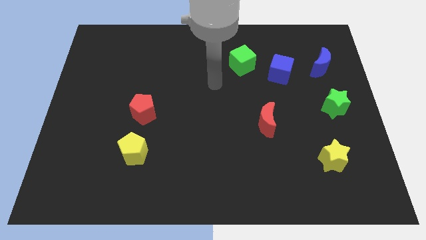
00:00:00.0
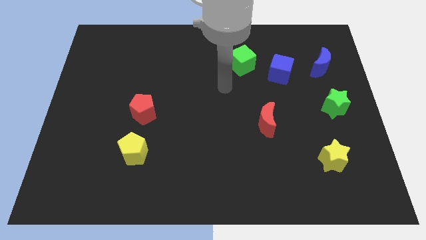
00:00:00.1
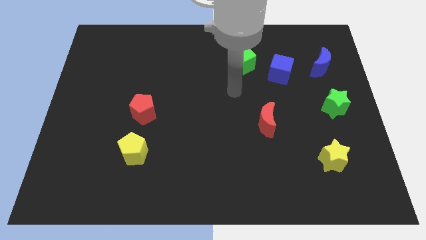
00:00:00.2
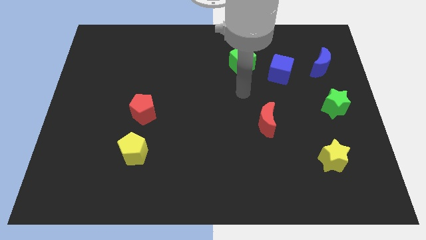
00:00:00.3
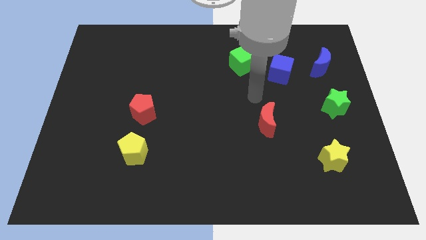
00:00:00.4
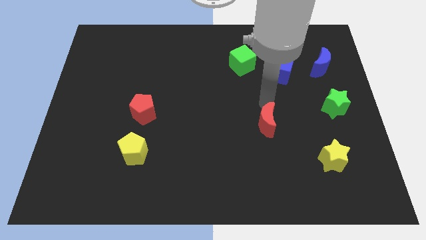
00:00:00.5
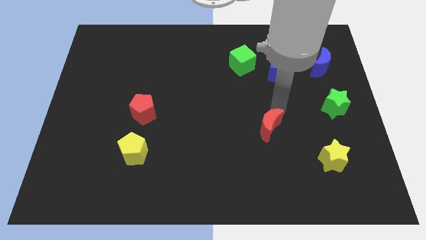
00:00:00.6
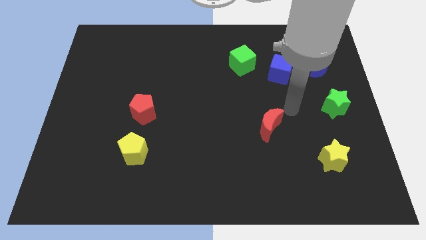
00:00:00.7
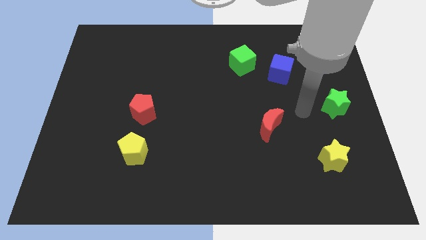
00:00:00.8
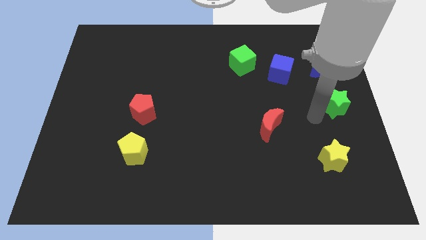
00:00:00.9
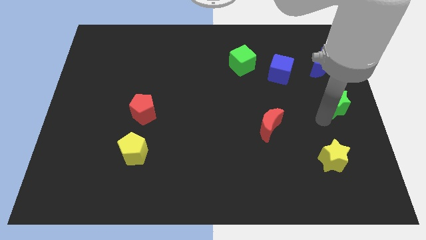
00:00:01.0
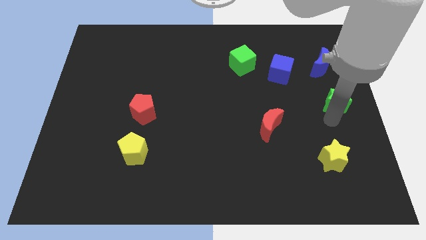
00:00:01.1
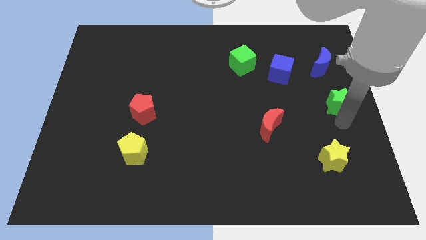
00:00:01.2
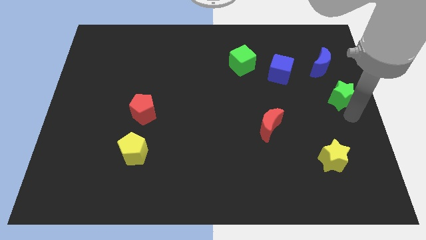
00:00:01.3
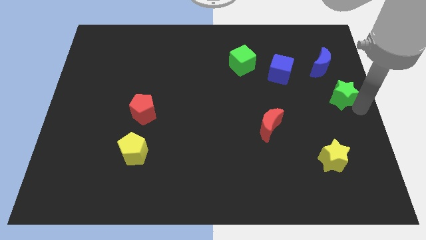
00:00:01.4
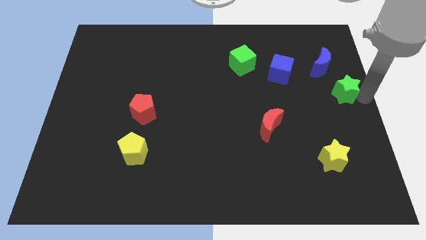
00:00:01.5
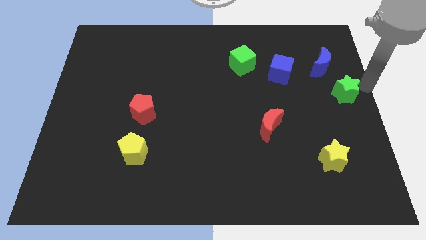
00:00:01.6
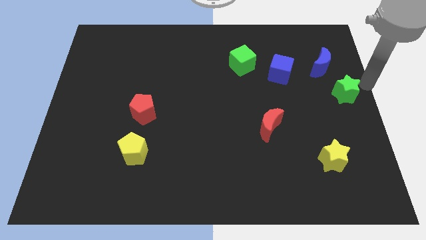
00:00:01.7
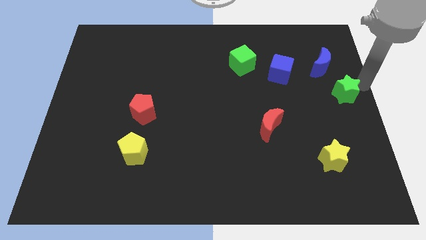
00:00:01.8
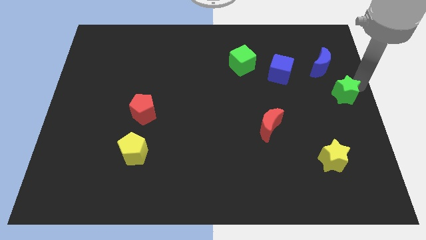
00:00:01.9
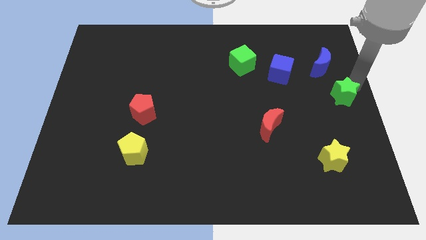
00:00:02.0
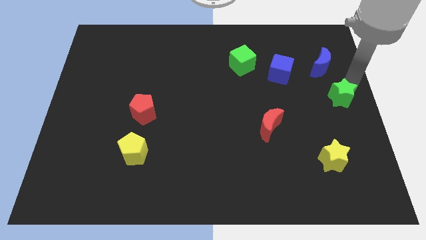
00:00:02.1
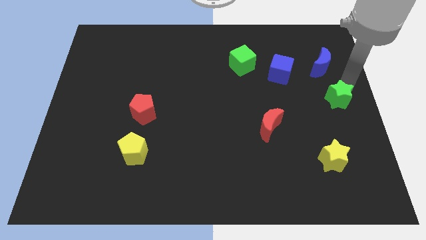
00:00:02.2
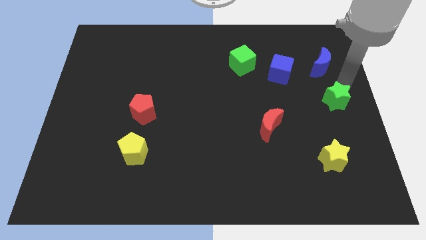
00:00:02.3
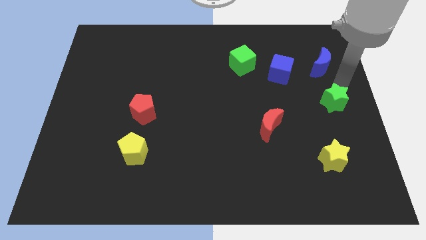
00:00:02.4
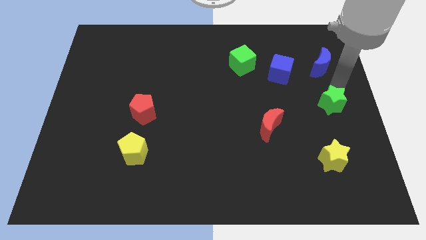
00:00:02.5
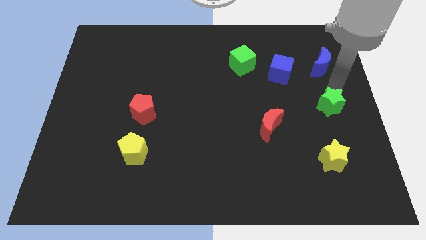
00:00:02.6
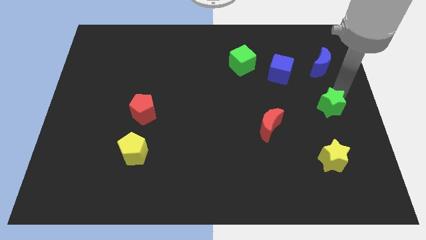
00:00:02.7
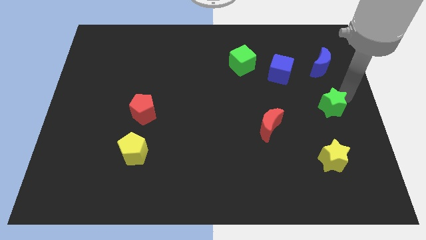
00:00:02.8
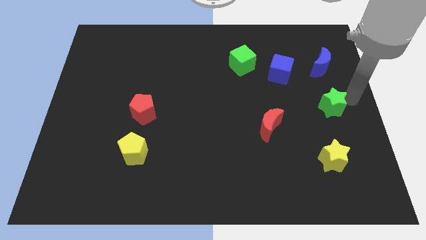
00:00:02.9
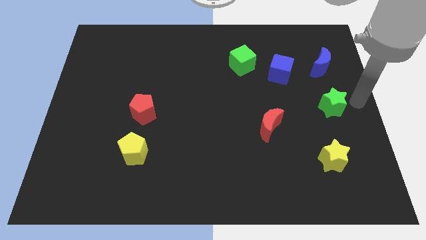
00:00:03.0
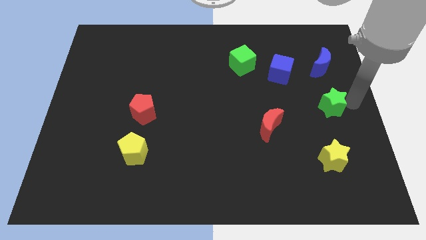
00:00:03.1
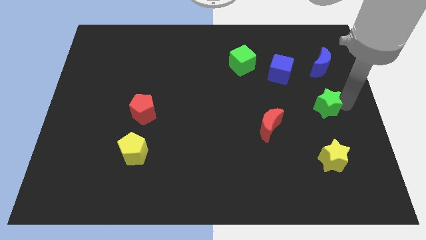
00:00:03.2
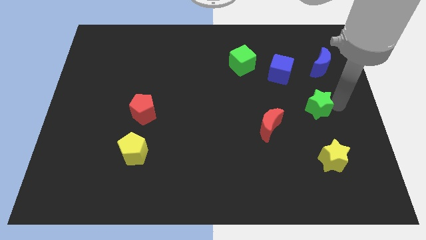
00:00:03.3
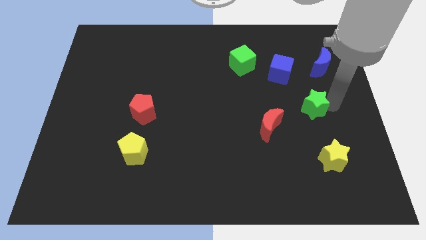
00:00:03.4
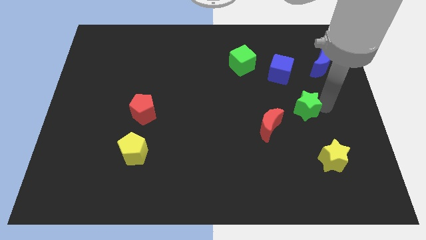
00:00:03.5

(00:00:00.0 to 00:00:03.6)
slide the green star left a little

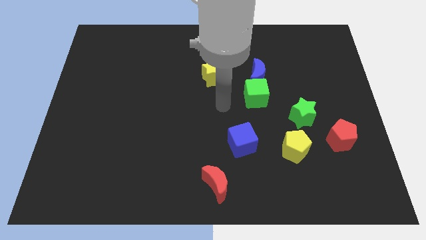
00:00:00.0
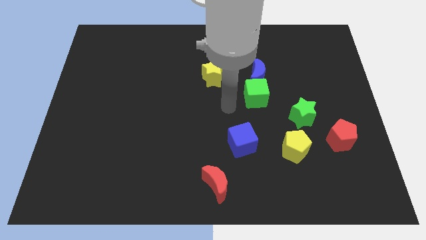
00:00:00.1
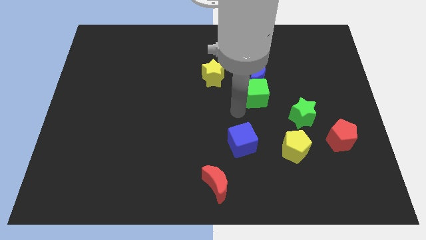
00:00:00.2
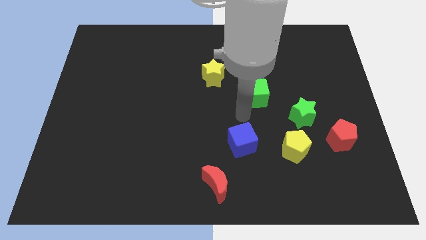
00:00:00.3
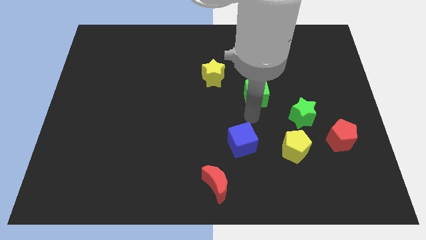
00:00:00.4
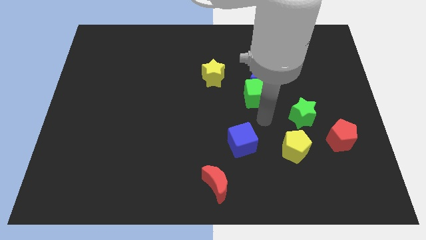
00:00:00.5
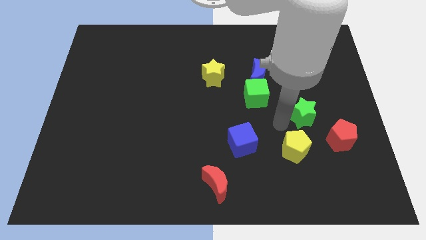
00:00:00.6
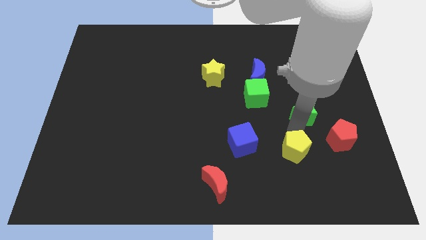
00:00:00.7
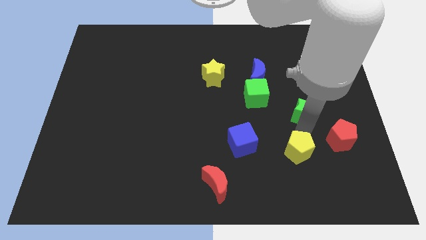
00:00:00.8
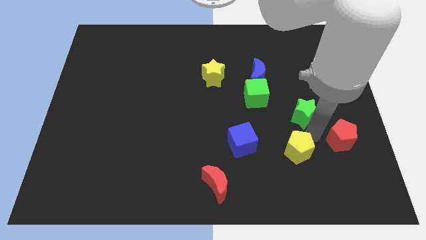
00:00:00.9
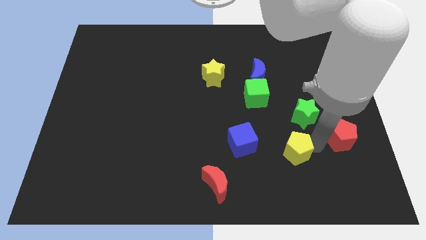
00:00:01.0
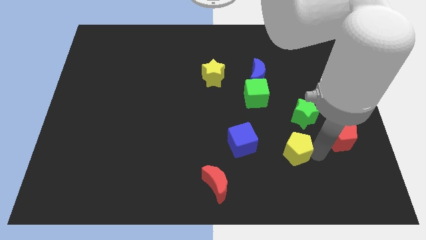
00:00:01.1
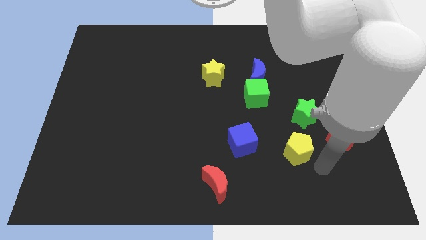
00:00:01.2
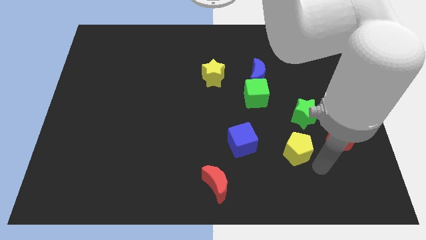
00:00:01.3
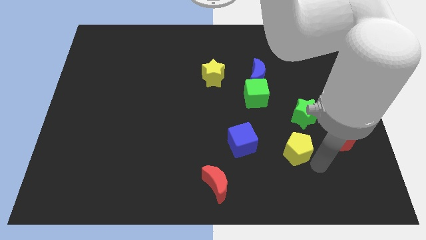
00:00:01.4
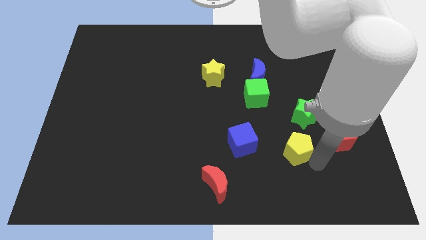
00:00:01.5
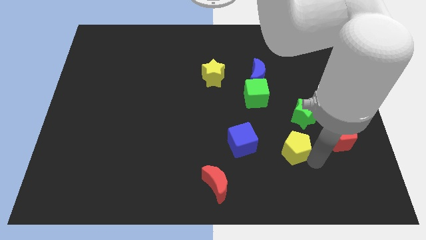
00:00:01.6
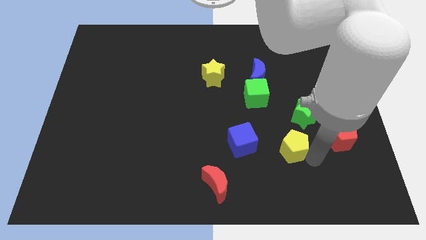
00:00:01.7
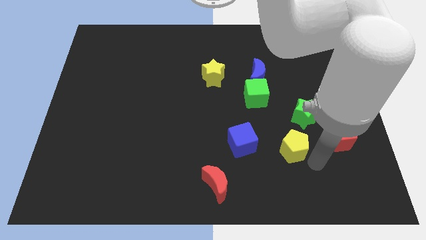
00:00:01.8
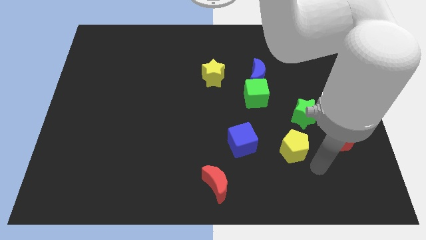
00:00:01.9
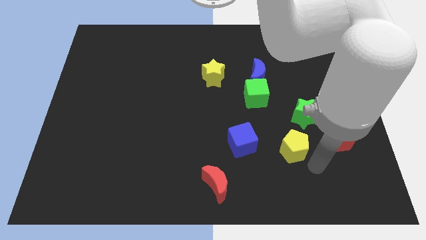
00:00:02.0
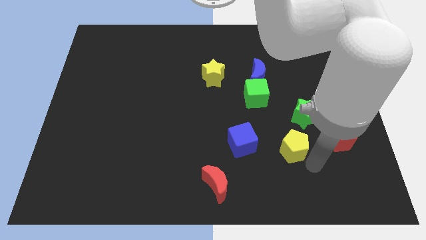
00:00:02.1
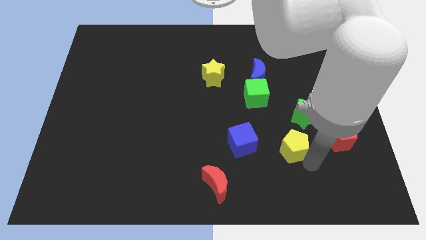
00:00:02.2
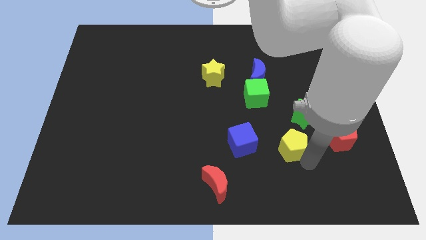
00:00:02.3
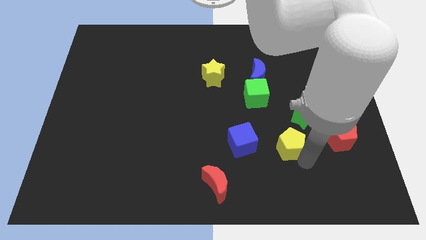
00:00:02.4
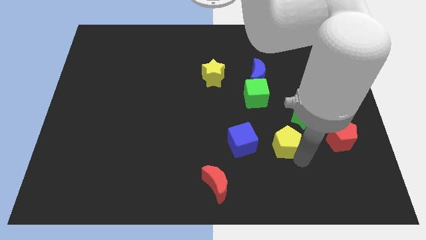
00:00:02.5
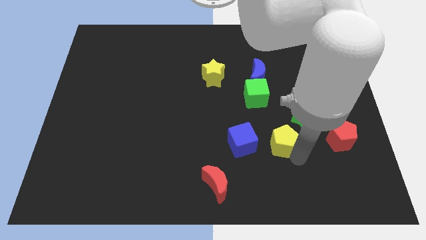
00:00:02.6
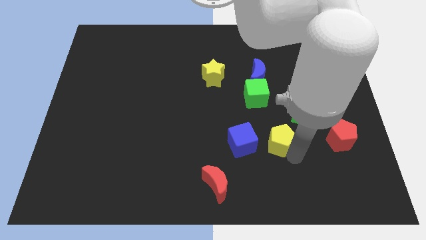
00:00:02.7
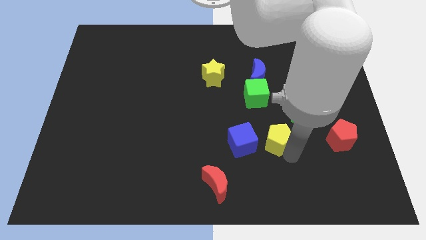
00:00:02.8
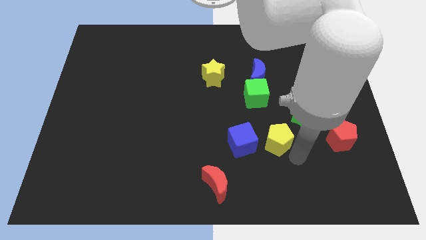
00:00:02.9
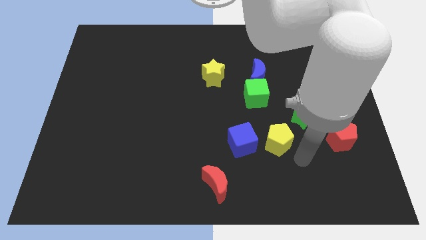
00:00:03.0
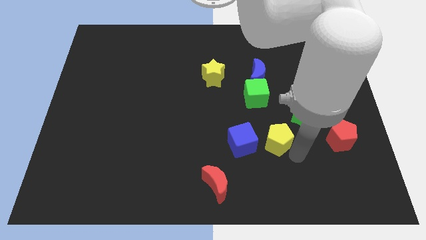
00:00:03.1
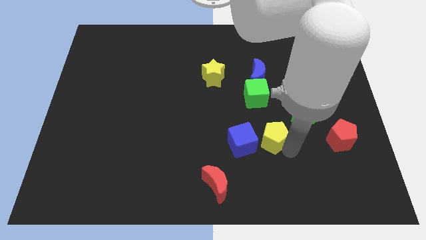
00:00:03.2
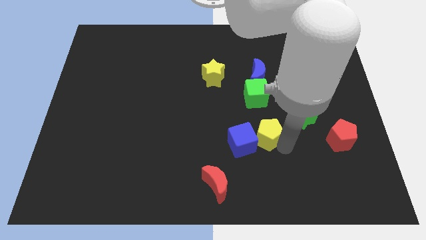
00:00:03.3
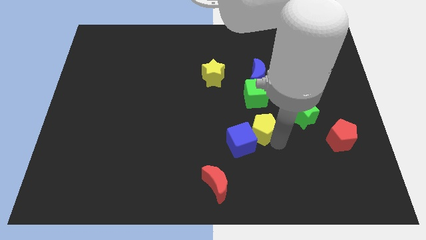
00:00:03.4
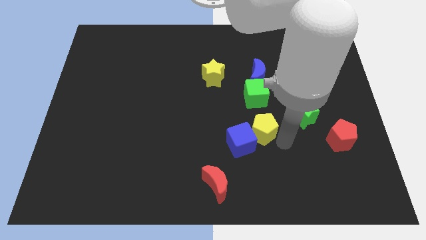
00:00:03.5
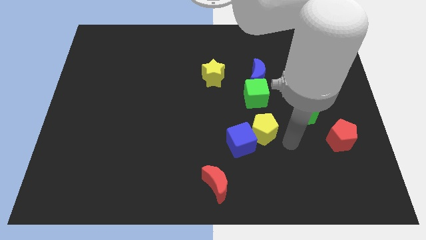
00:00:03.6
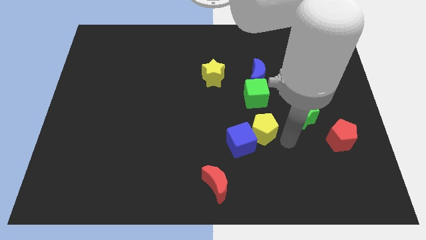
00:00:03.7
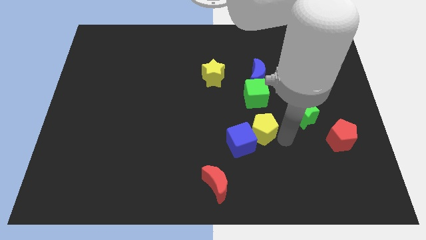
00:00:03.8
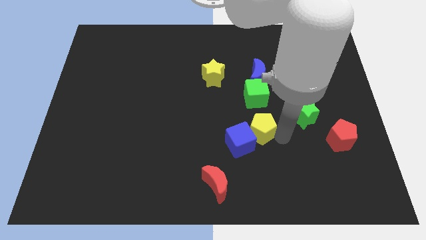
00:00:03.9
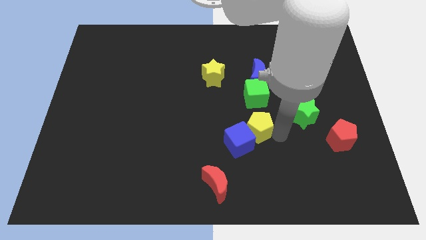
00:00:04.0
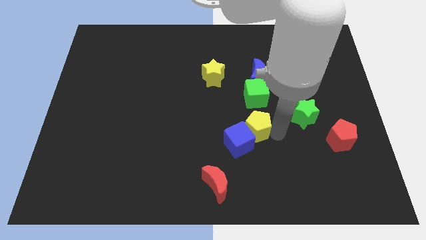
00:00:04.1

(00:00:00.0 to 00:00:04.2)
slide the yellow pentagon to the left a little bit

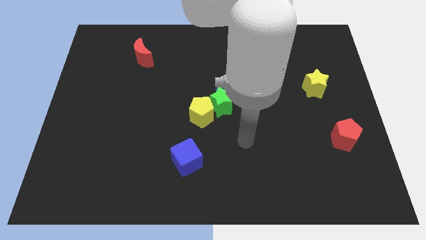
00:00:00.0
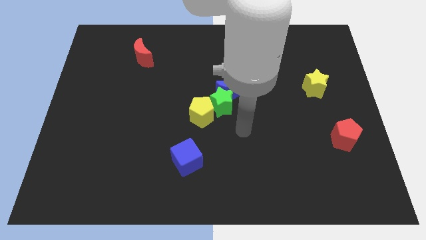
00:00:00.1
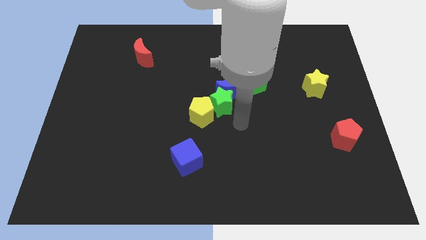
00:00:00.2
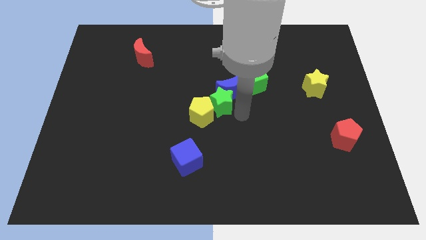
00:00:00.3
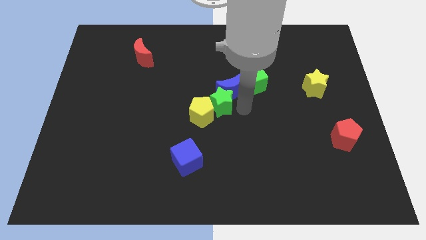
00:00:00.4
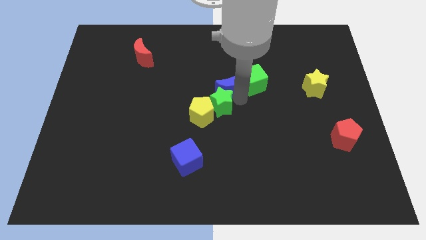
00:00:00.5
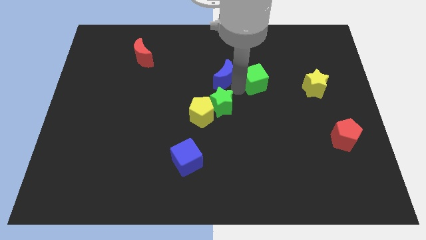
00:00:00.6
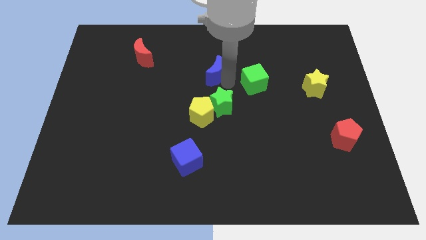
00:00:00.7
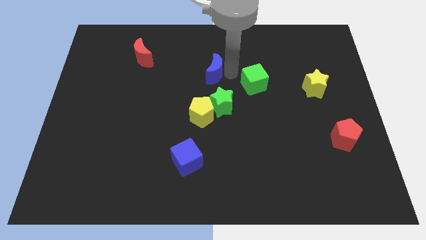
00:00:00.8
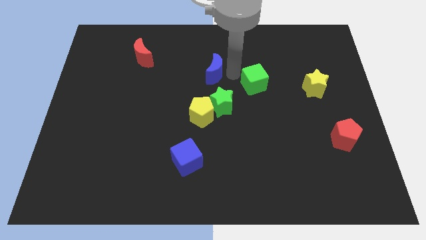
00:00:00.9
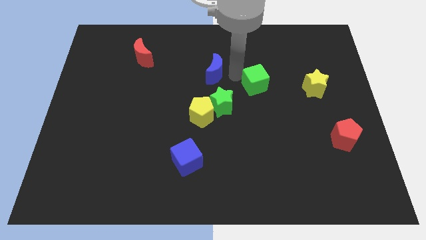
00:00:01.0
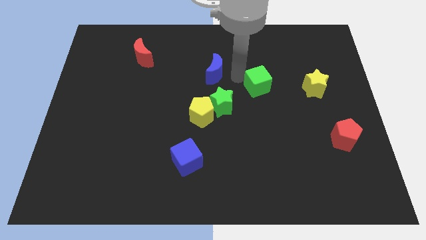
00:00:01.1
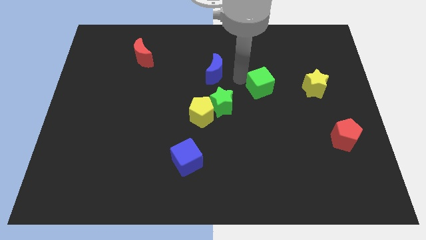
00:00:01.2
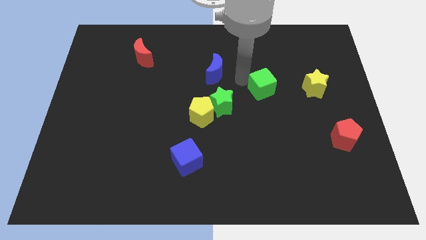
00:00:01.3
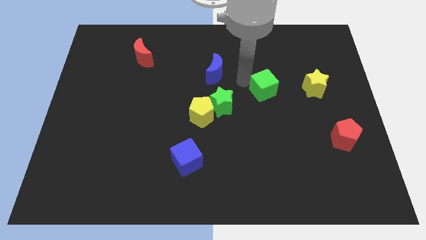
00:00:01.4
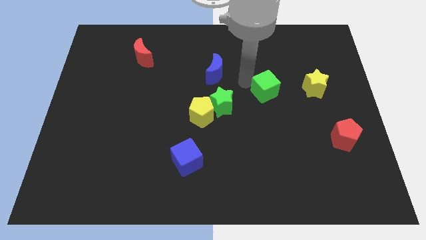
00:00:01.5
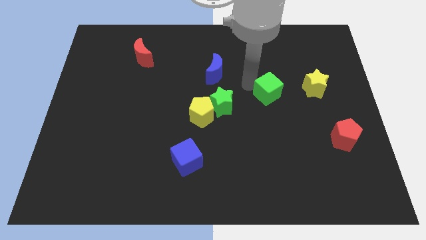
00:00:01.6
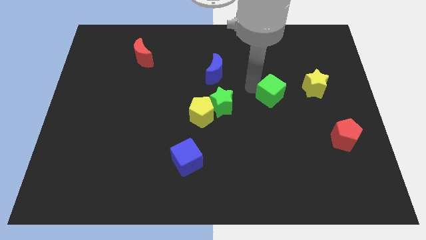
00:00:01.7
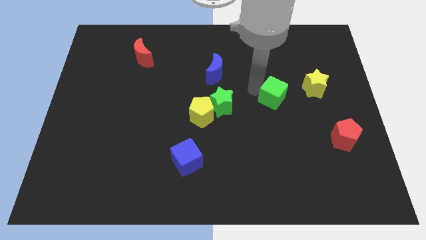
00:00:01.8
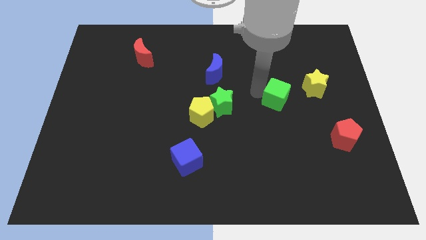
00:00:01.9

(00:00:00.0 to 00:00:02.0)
move the green cube somewhat down and then right
